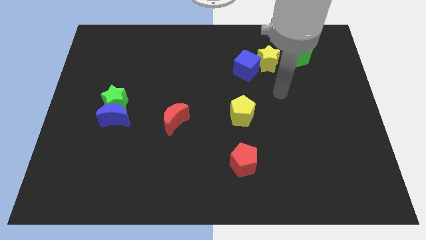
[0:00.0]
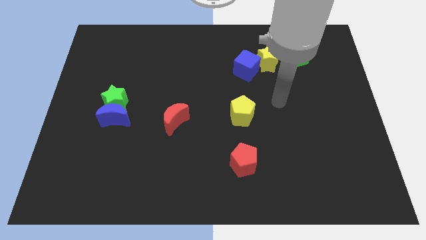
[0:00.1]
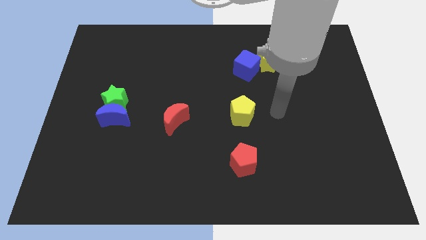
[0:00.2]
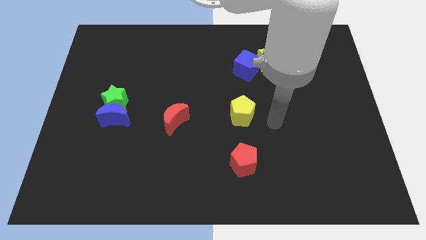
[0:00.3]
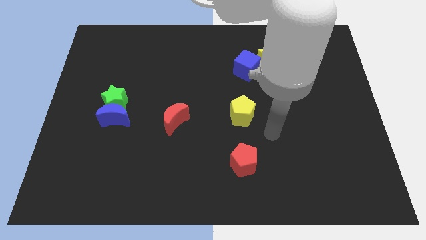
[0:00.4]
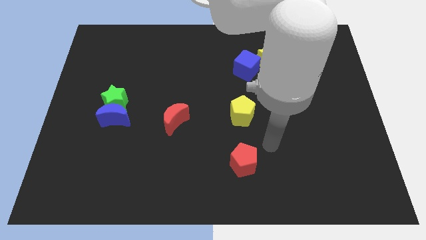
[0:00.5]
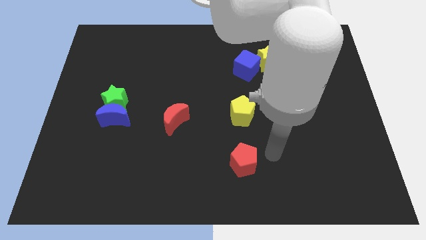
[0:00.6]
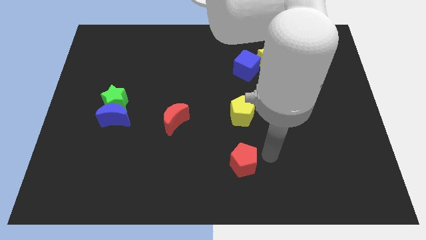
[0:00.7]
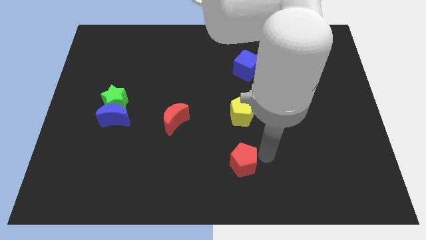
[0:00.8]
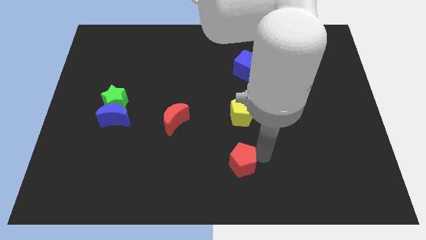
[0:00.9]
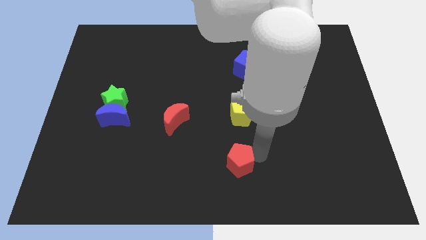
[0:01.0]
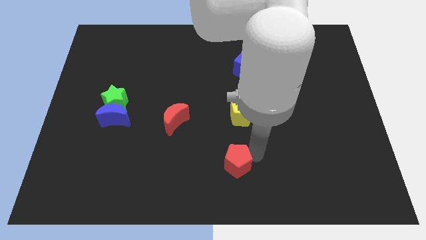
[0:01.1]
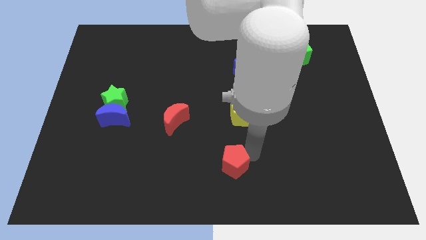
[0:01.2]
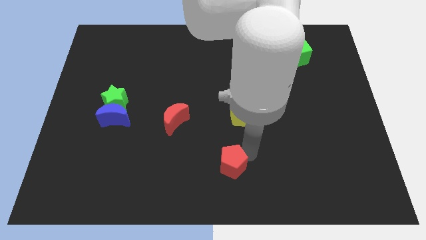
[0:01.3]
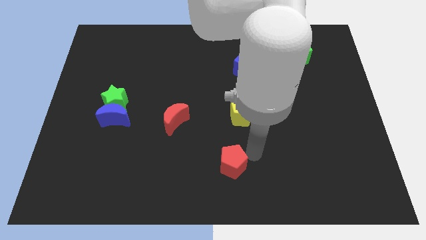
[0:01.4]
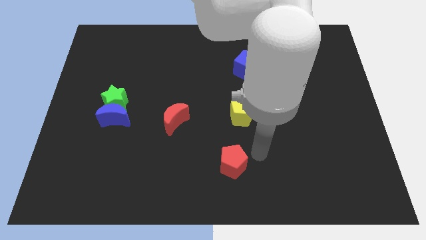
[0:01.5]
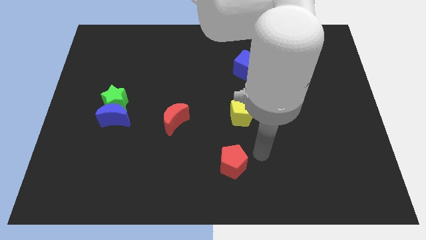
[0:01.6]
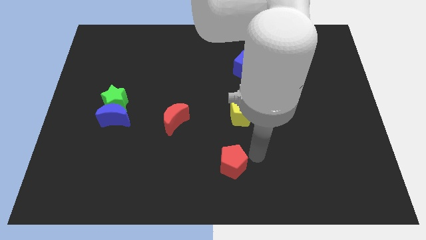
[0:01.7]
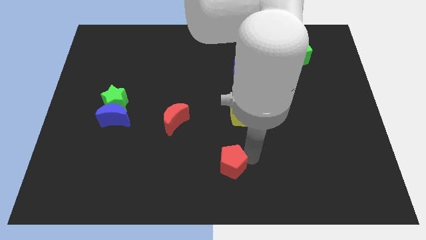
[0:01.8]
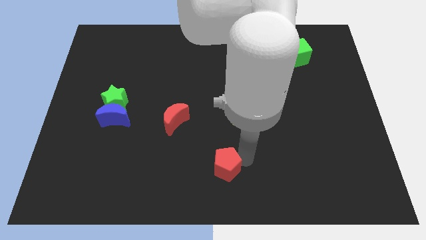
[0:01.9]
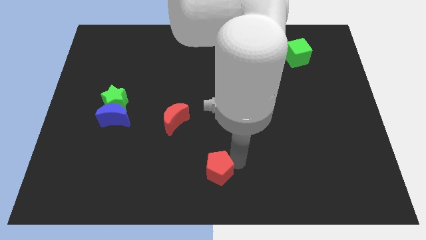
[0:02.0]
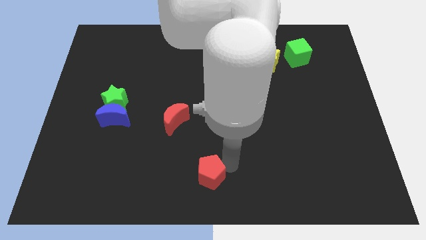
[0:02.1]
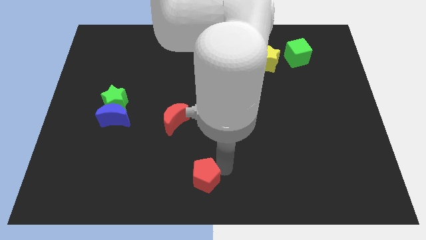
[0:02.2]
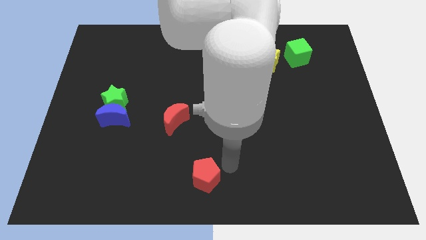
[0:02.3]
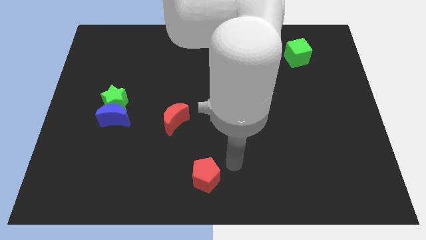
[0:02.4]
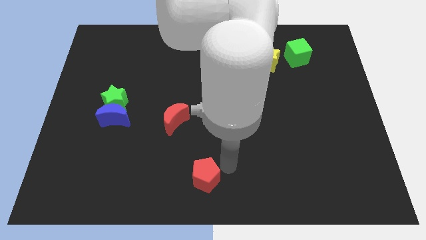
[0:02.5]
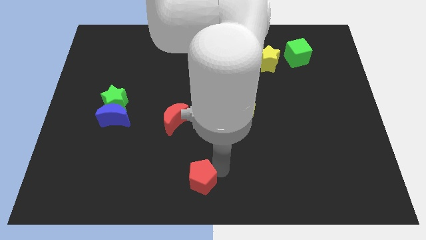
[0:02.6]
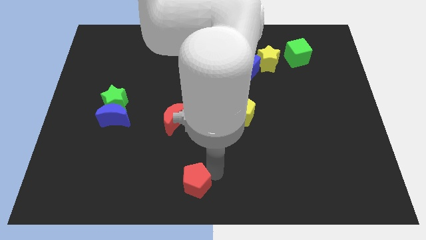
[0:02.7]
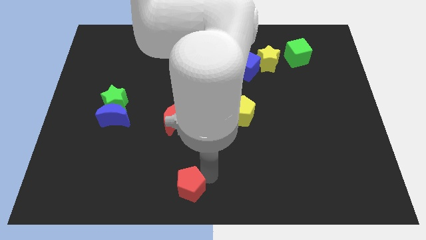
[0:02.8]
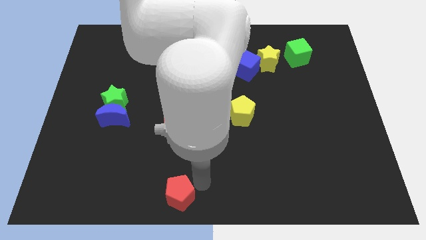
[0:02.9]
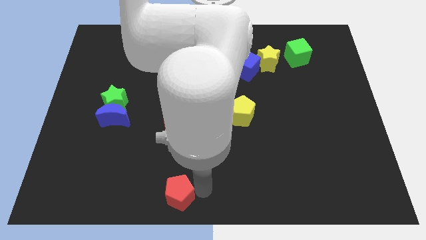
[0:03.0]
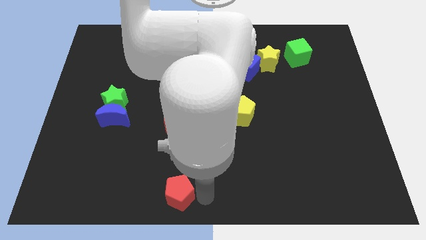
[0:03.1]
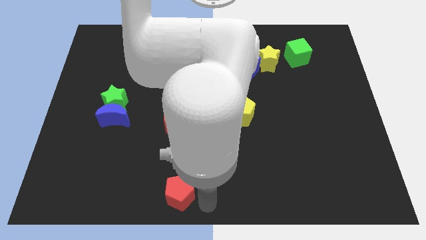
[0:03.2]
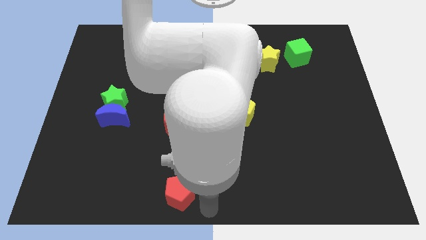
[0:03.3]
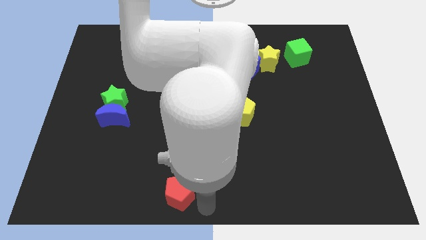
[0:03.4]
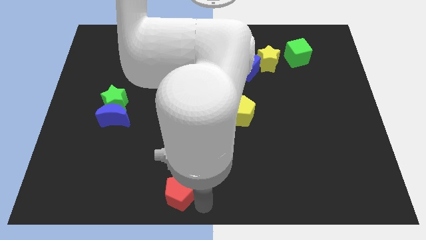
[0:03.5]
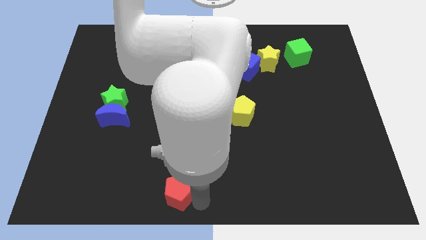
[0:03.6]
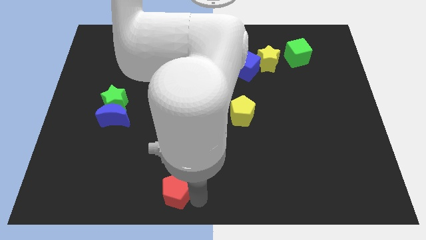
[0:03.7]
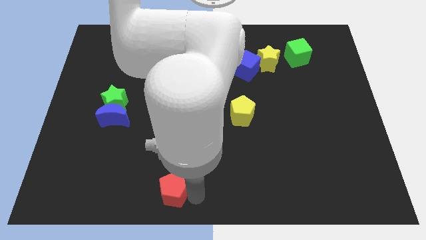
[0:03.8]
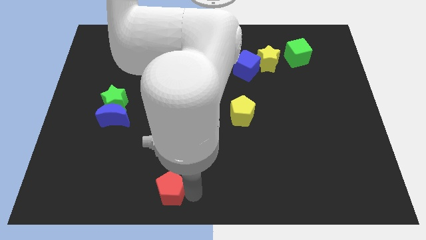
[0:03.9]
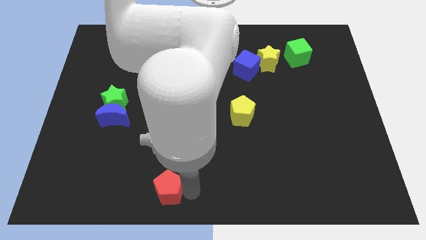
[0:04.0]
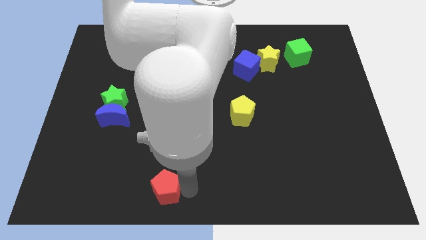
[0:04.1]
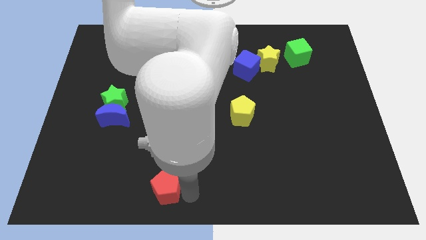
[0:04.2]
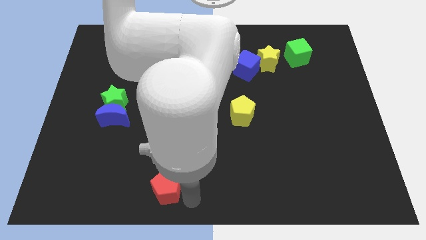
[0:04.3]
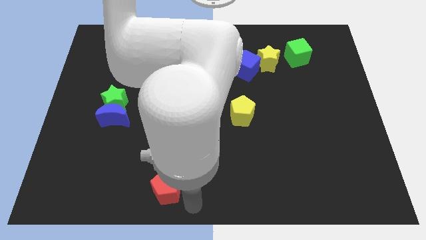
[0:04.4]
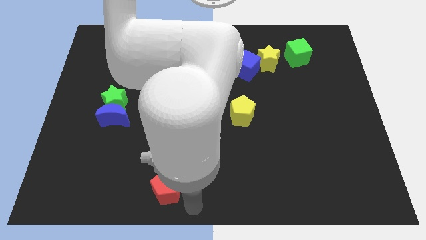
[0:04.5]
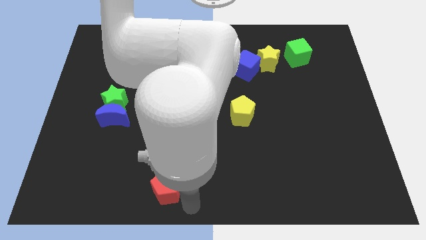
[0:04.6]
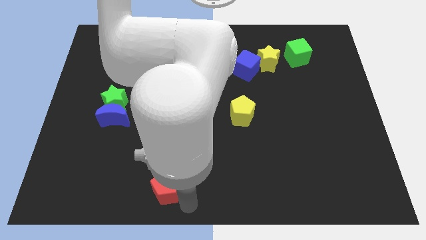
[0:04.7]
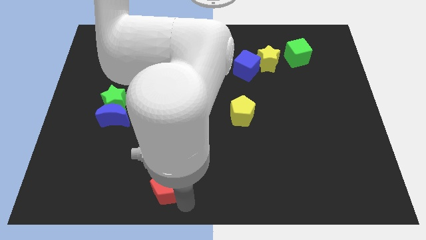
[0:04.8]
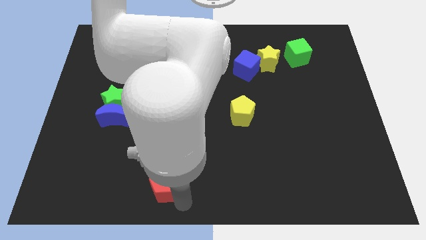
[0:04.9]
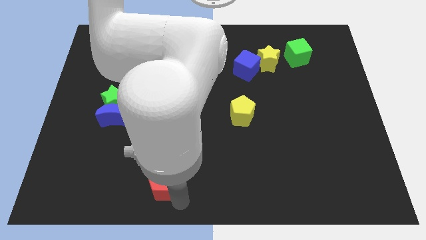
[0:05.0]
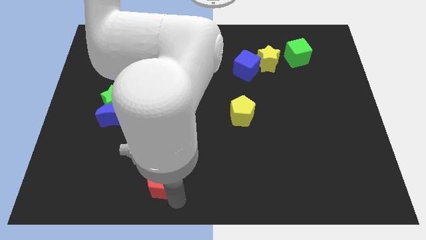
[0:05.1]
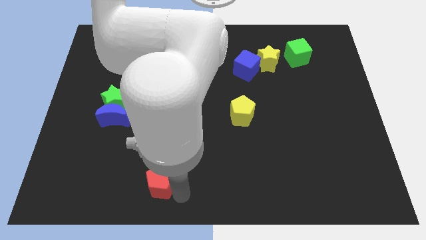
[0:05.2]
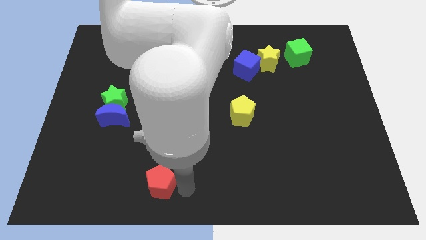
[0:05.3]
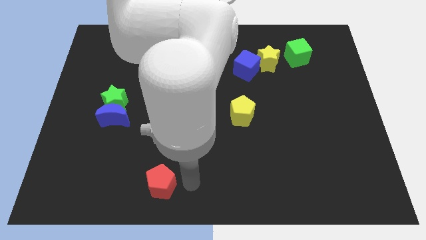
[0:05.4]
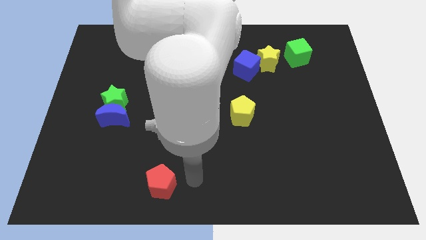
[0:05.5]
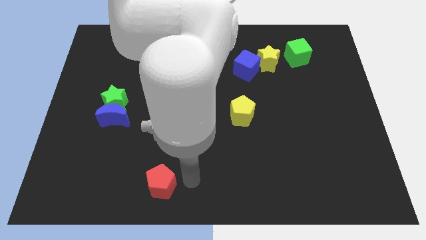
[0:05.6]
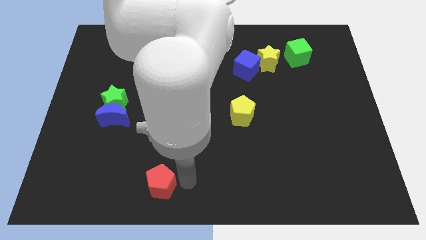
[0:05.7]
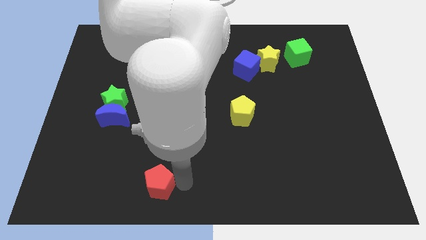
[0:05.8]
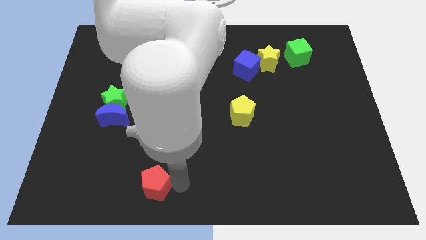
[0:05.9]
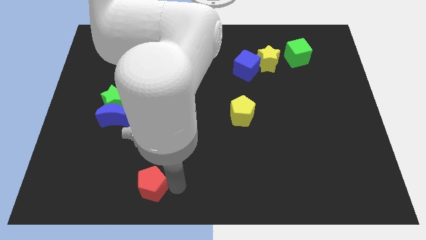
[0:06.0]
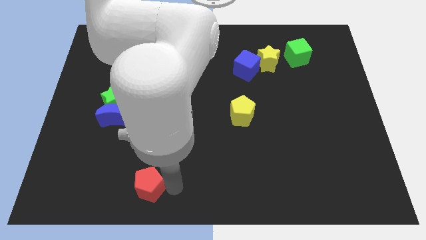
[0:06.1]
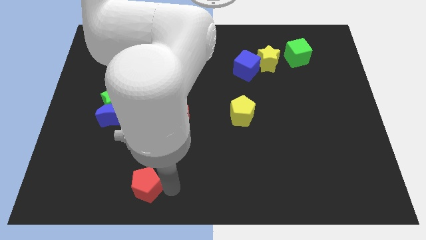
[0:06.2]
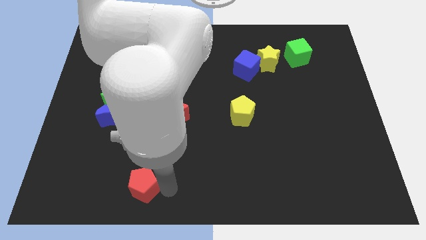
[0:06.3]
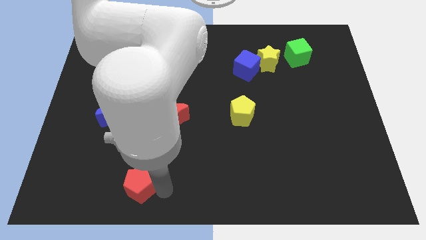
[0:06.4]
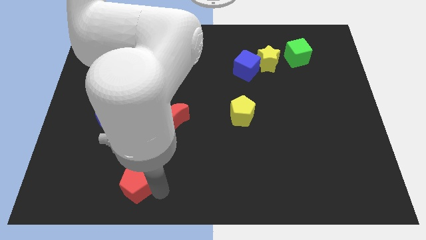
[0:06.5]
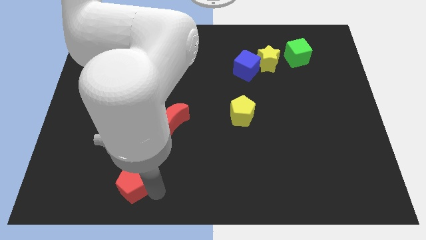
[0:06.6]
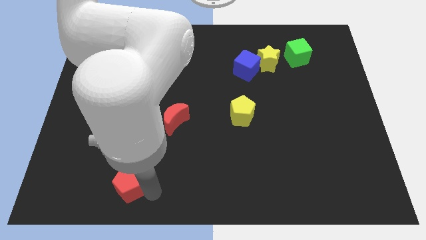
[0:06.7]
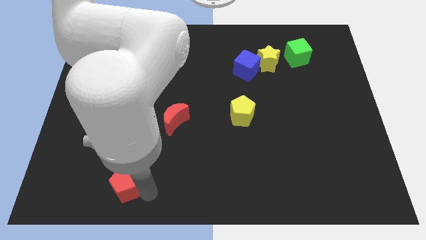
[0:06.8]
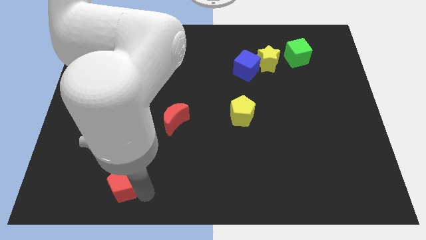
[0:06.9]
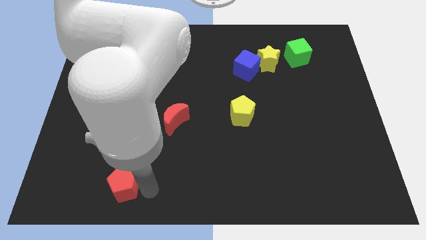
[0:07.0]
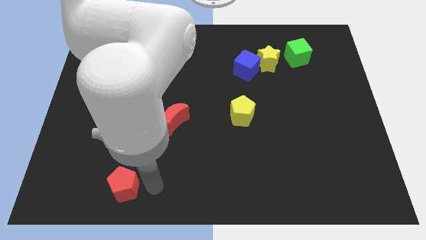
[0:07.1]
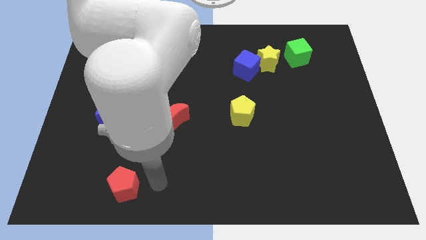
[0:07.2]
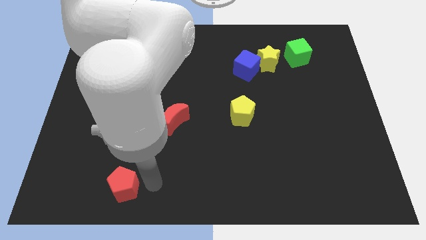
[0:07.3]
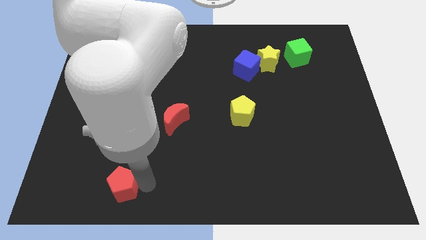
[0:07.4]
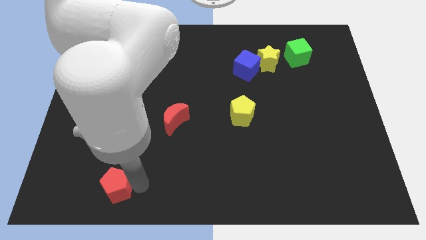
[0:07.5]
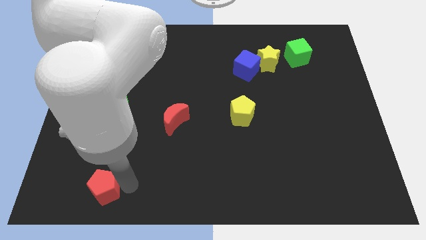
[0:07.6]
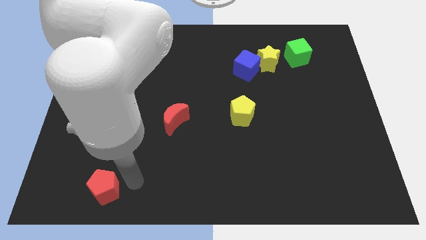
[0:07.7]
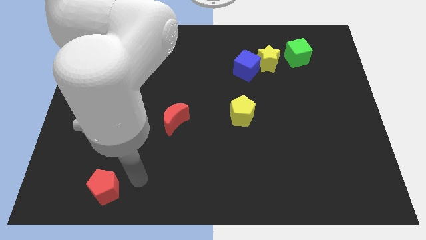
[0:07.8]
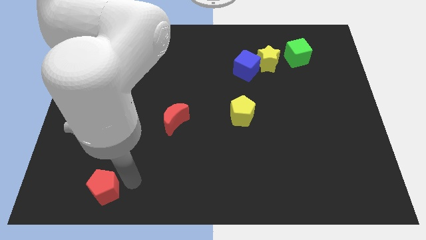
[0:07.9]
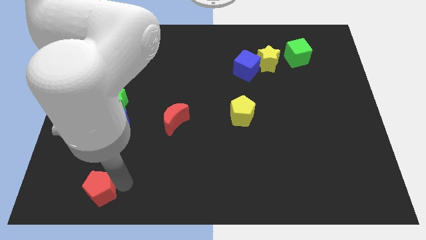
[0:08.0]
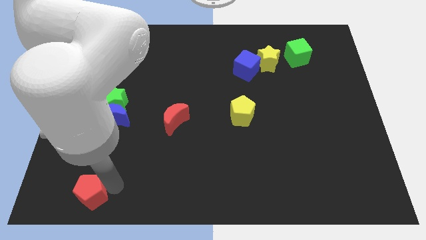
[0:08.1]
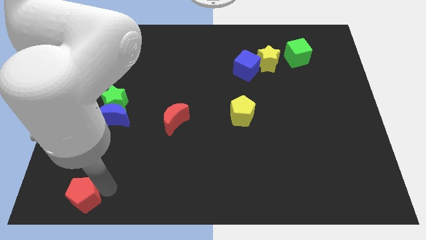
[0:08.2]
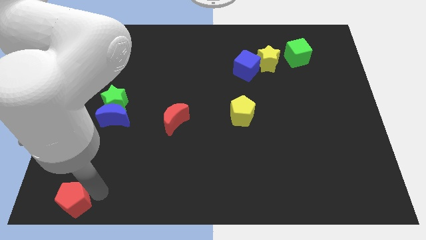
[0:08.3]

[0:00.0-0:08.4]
move the red pentagon to the bottom left corner
